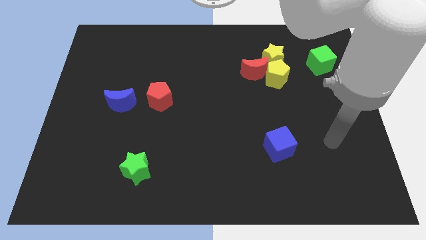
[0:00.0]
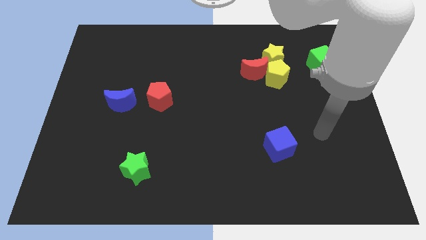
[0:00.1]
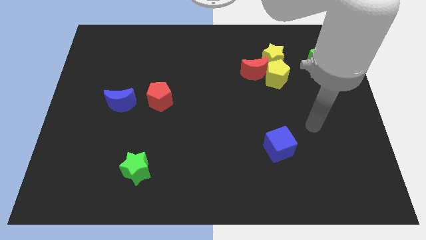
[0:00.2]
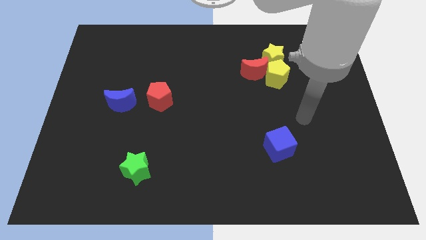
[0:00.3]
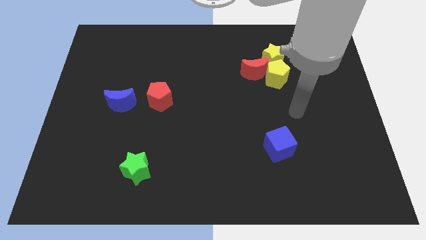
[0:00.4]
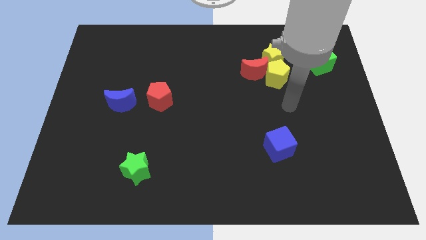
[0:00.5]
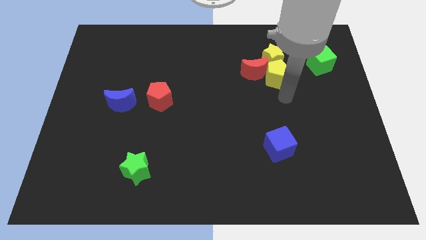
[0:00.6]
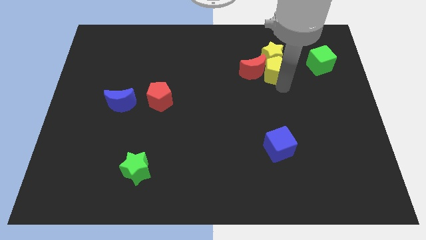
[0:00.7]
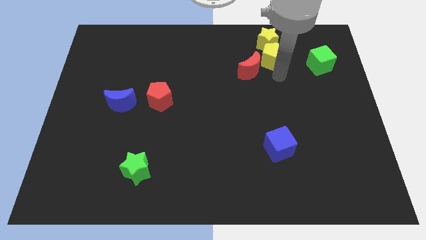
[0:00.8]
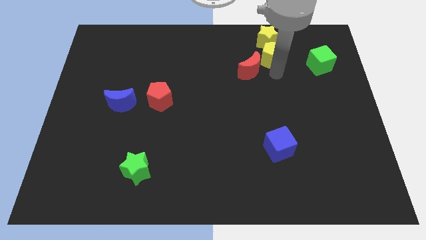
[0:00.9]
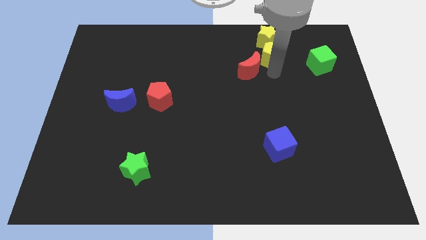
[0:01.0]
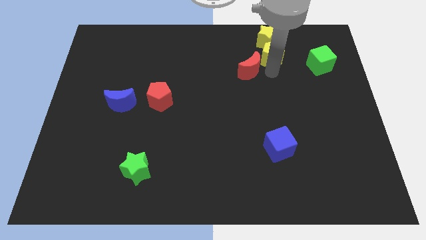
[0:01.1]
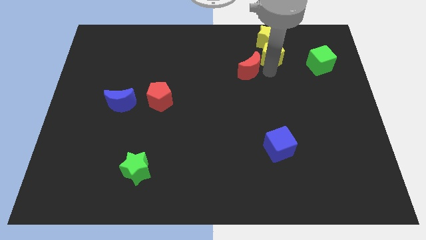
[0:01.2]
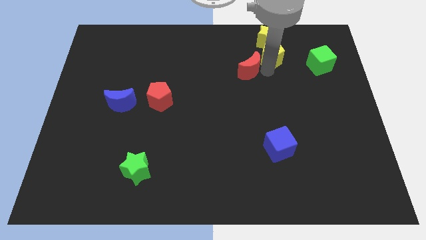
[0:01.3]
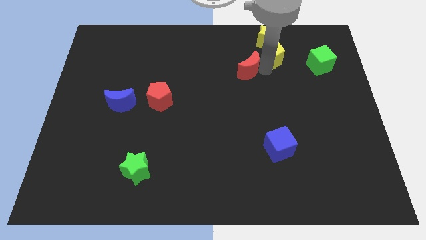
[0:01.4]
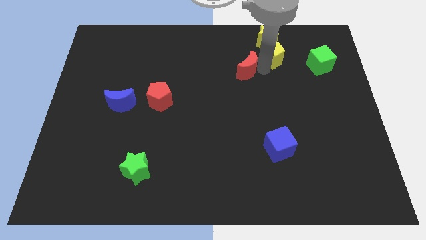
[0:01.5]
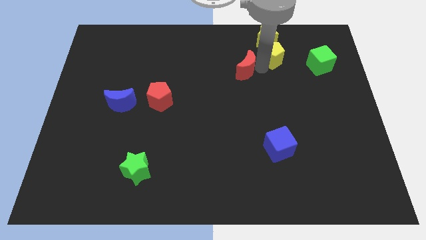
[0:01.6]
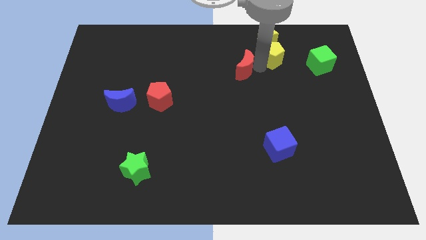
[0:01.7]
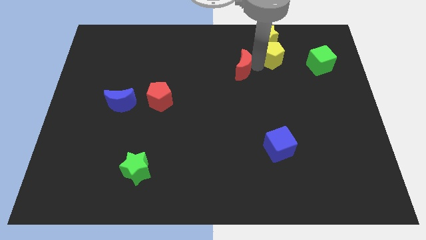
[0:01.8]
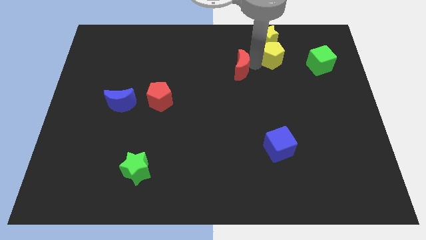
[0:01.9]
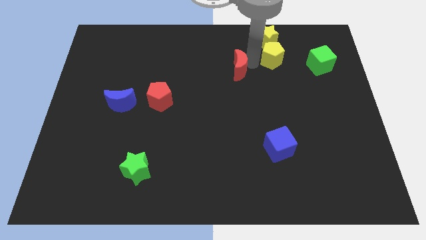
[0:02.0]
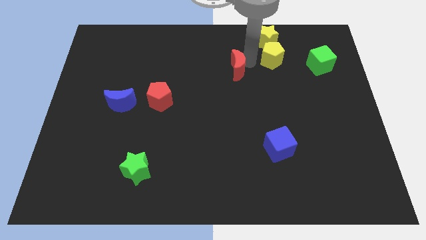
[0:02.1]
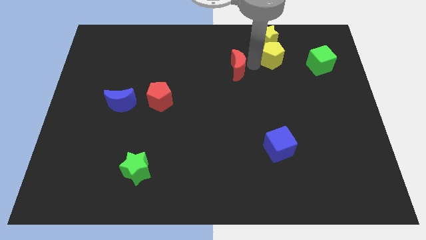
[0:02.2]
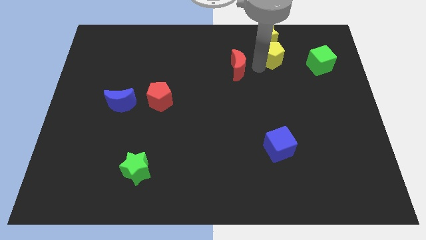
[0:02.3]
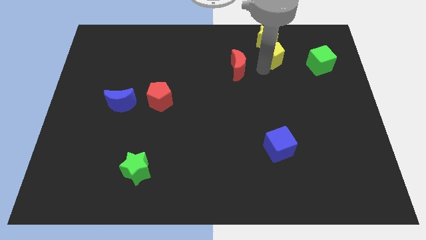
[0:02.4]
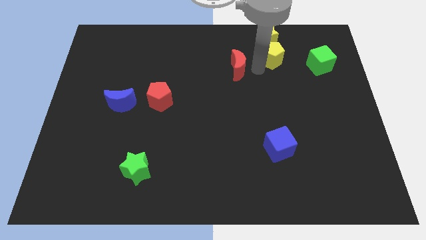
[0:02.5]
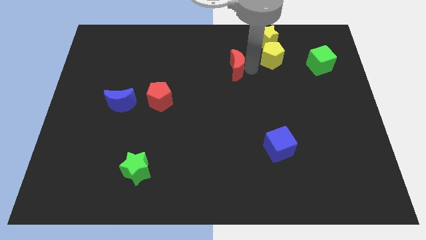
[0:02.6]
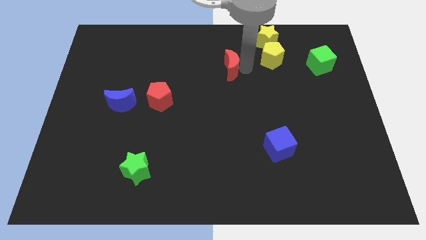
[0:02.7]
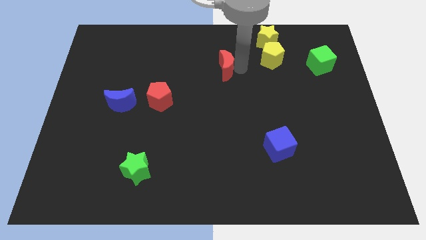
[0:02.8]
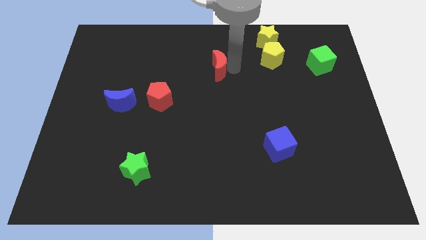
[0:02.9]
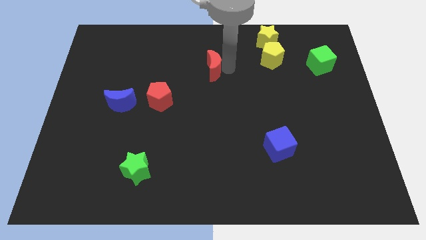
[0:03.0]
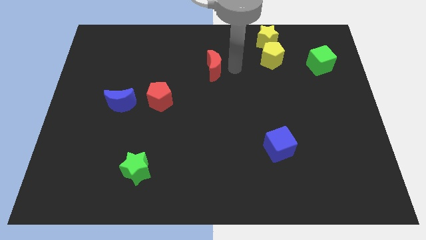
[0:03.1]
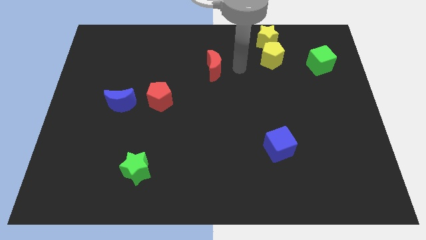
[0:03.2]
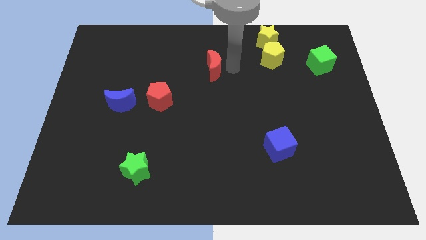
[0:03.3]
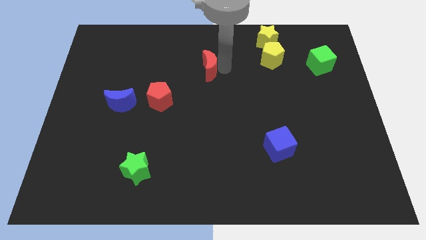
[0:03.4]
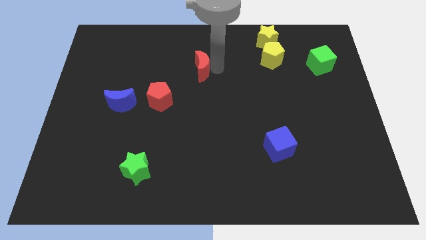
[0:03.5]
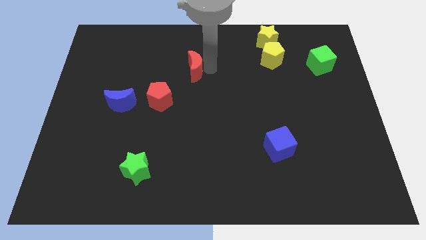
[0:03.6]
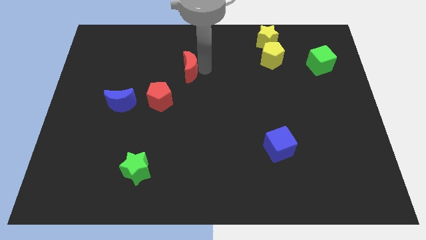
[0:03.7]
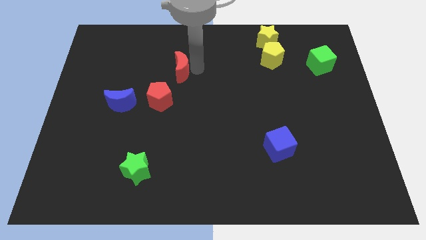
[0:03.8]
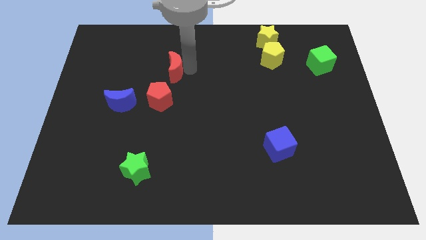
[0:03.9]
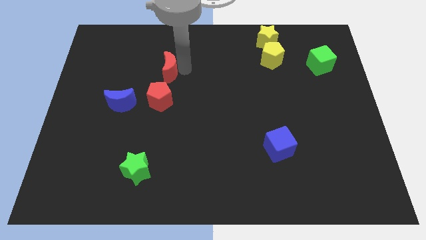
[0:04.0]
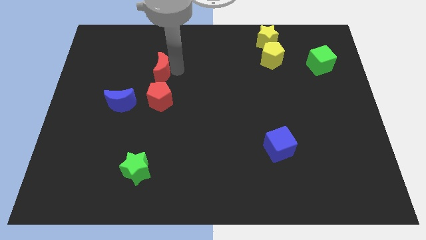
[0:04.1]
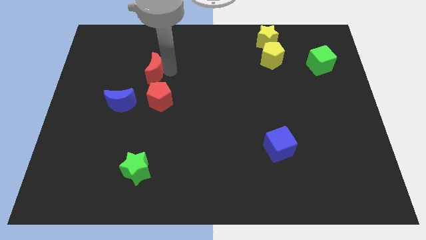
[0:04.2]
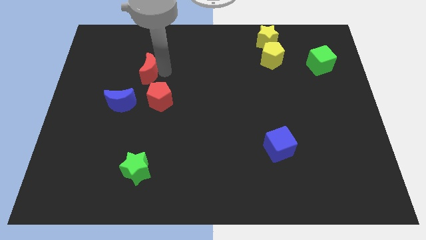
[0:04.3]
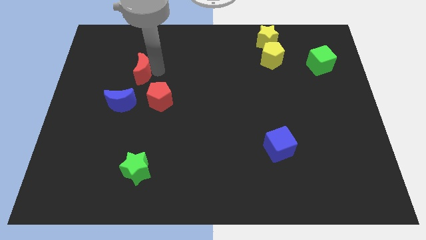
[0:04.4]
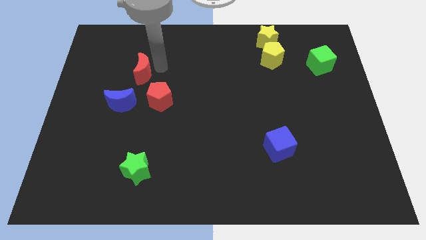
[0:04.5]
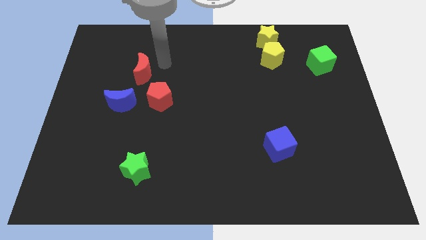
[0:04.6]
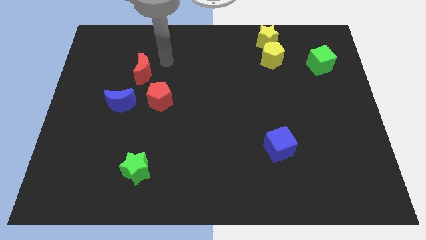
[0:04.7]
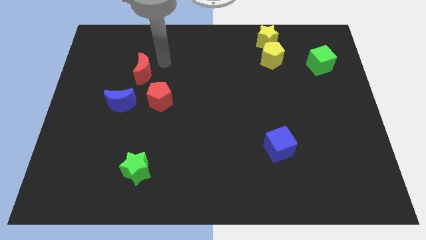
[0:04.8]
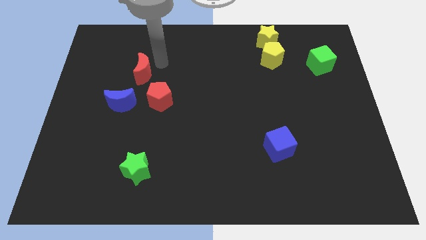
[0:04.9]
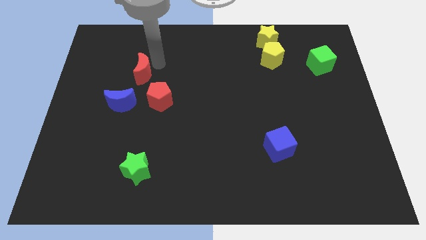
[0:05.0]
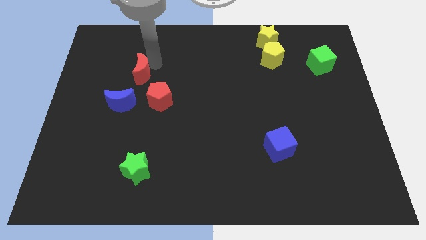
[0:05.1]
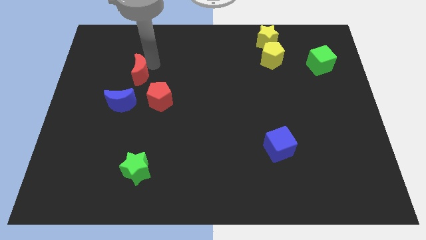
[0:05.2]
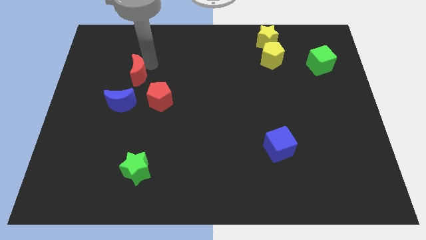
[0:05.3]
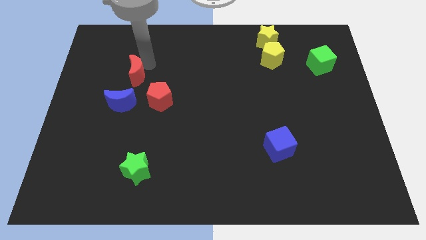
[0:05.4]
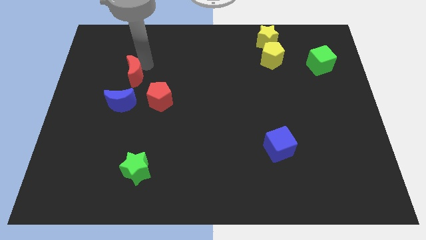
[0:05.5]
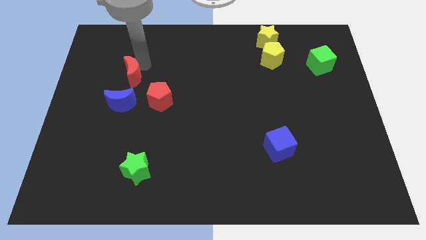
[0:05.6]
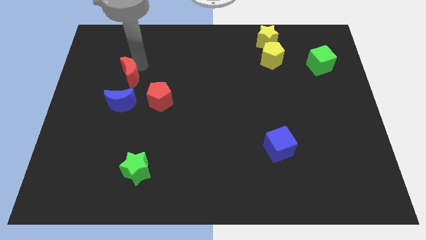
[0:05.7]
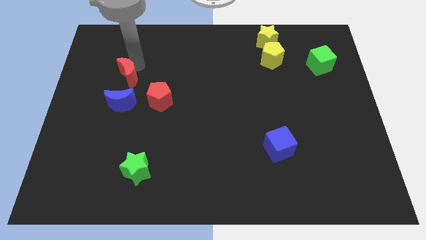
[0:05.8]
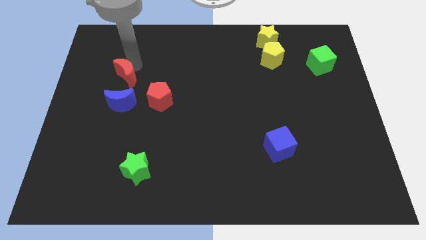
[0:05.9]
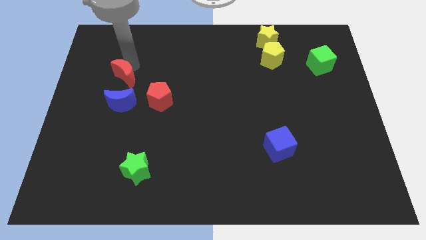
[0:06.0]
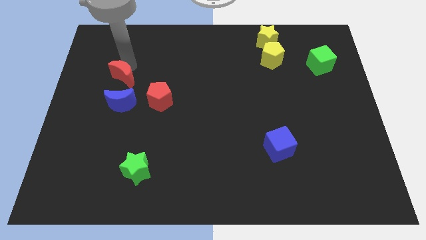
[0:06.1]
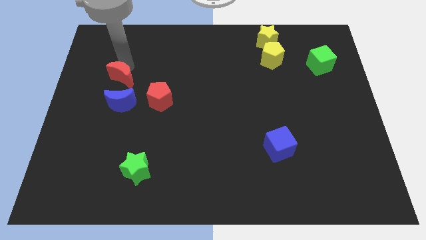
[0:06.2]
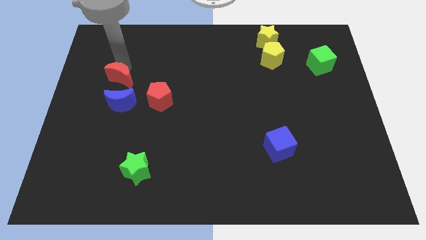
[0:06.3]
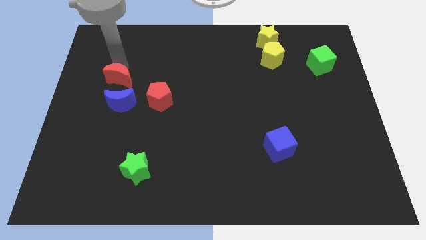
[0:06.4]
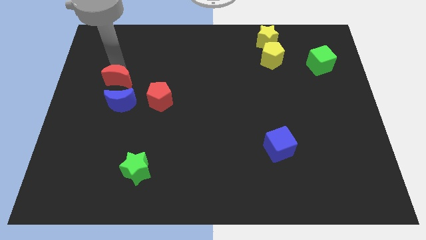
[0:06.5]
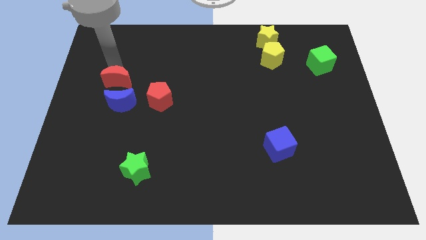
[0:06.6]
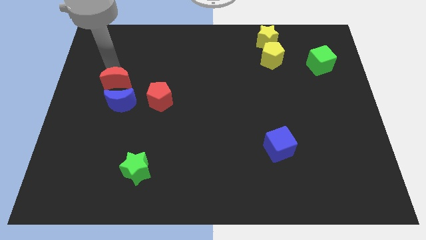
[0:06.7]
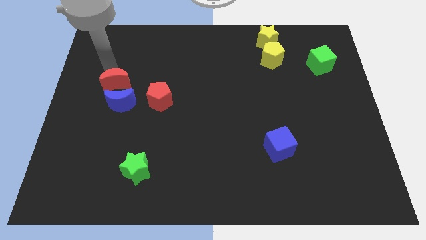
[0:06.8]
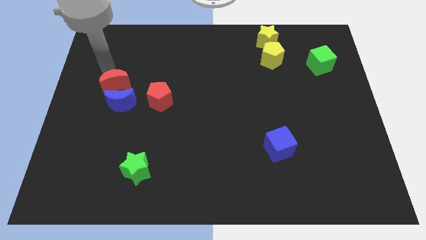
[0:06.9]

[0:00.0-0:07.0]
move the red moon to the left of the red pentagon
